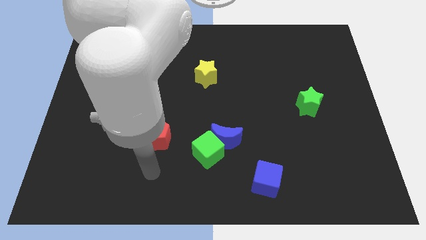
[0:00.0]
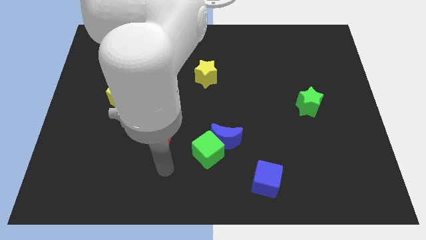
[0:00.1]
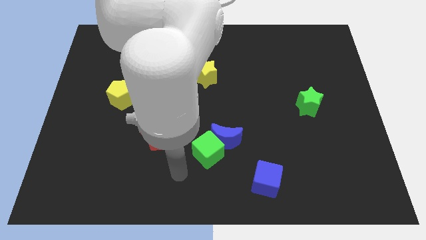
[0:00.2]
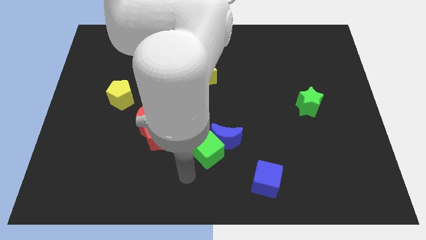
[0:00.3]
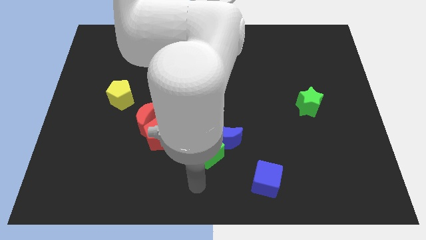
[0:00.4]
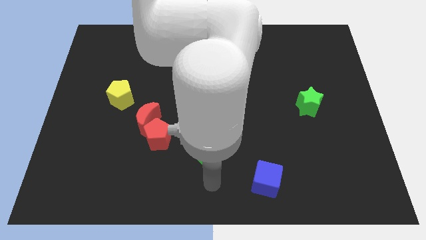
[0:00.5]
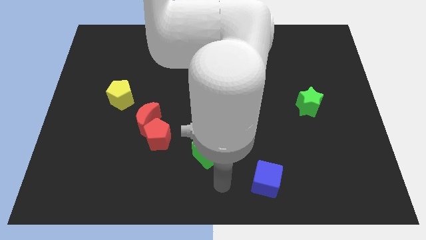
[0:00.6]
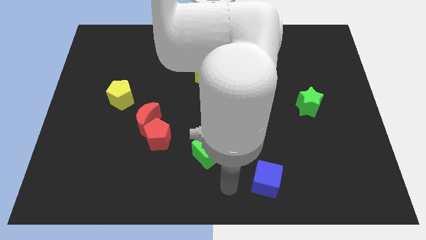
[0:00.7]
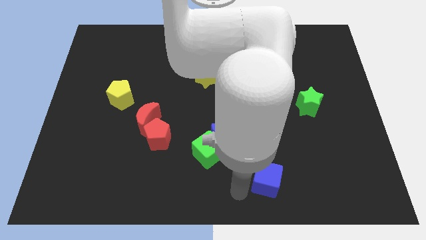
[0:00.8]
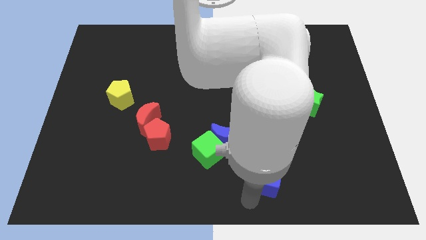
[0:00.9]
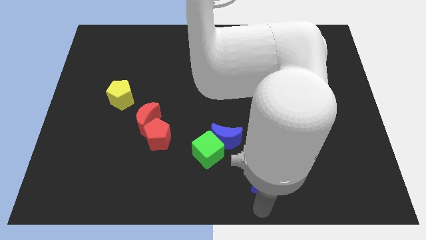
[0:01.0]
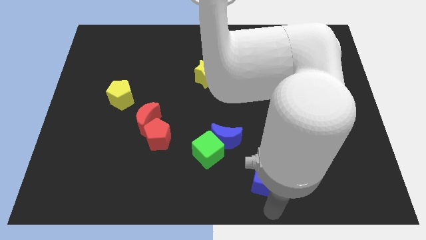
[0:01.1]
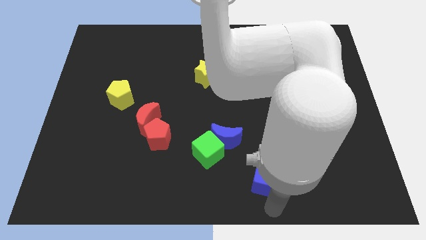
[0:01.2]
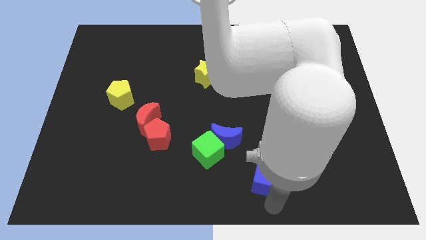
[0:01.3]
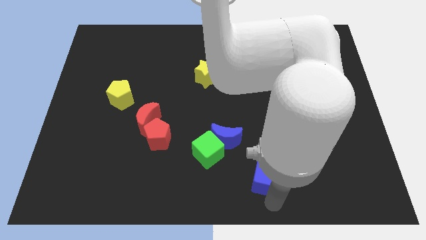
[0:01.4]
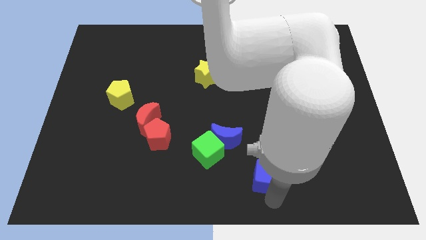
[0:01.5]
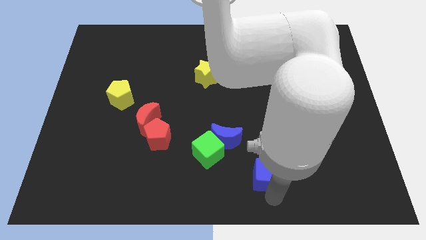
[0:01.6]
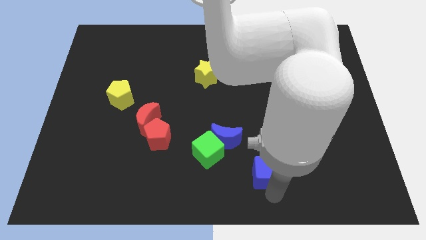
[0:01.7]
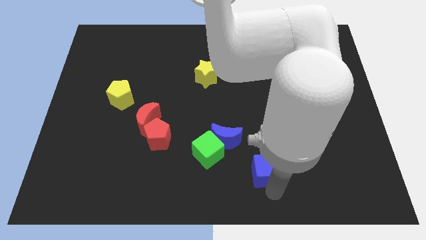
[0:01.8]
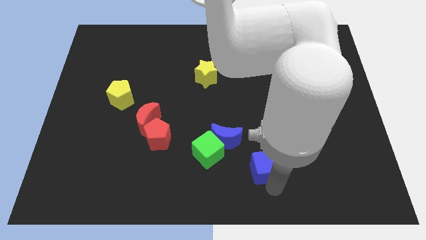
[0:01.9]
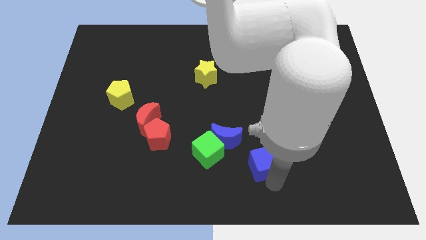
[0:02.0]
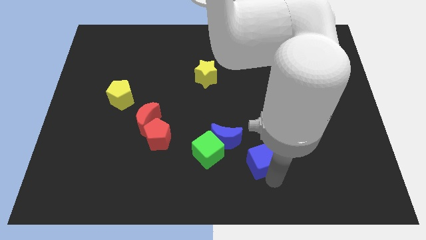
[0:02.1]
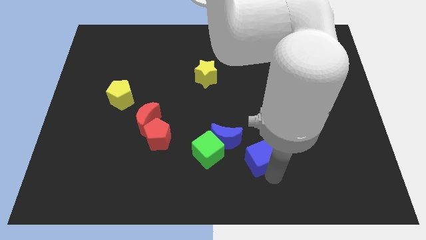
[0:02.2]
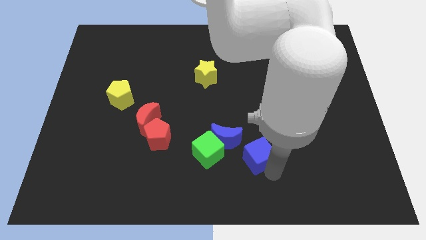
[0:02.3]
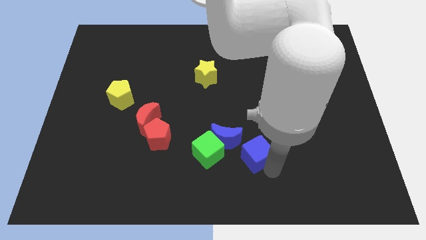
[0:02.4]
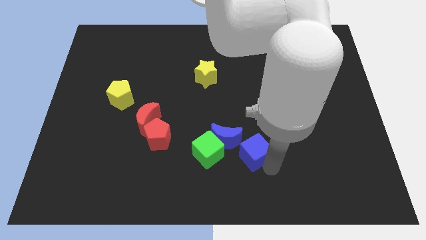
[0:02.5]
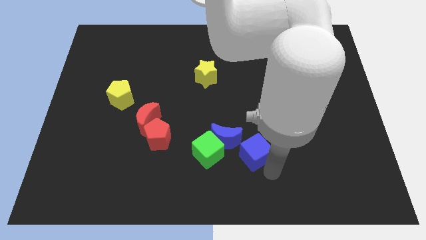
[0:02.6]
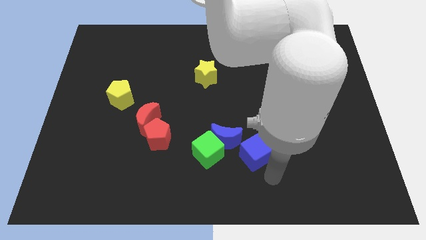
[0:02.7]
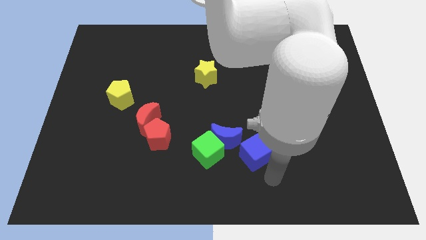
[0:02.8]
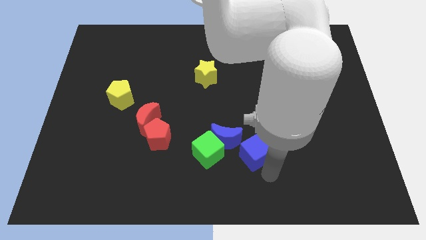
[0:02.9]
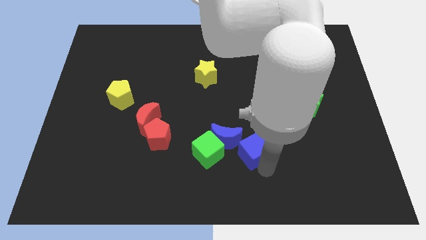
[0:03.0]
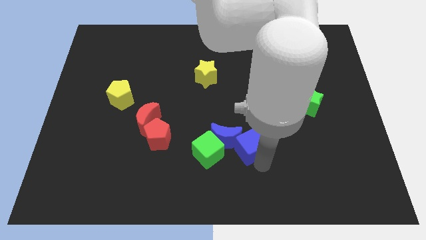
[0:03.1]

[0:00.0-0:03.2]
slightly slide the blue cube up and left diagonally

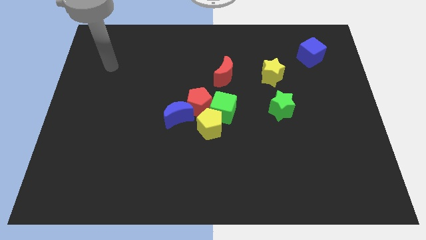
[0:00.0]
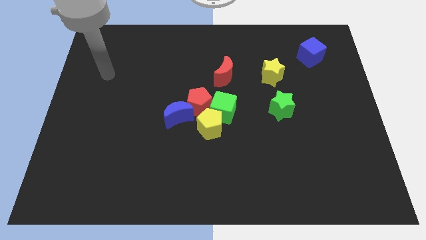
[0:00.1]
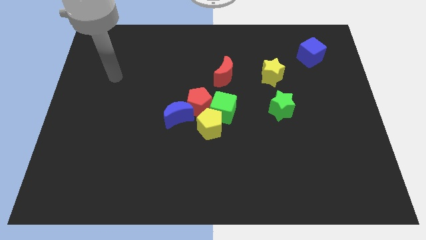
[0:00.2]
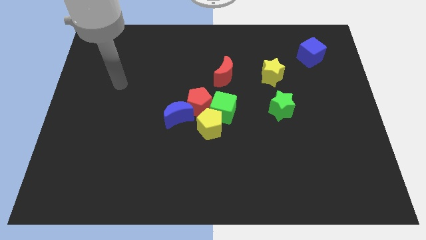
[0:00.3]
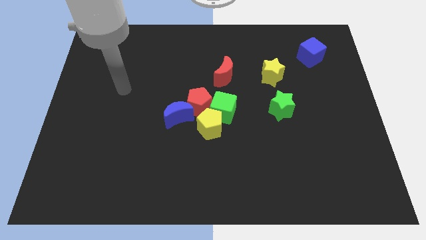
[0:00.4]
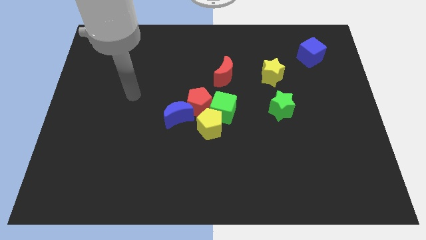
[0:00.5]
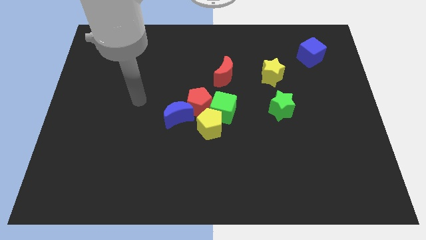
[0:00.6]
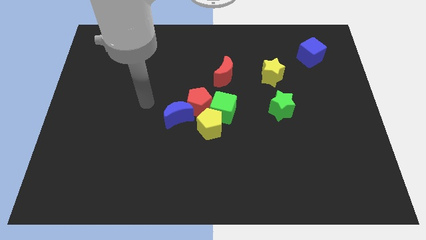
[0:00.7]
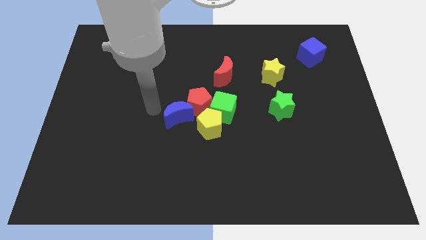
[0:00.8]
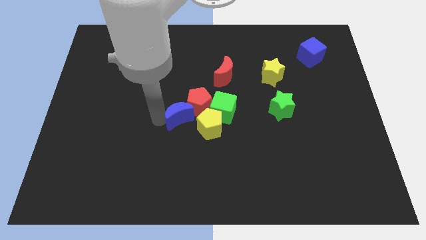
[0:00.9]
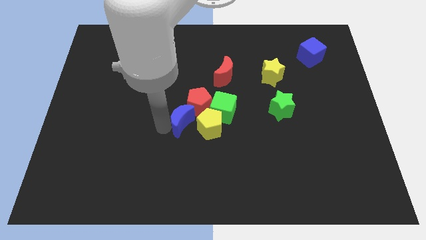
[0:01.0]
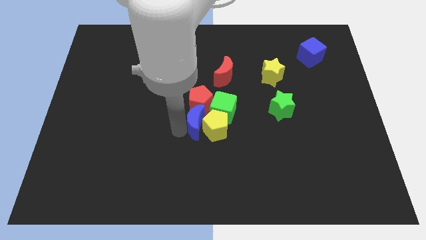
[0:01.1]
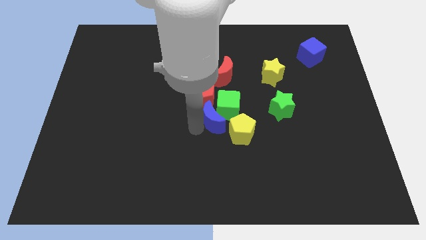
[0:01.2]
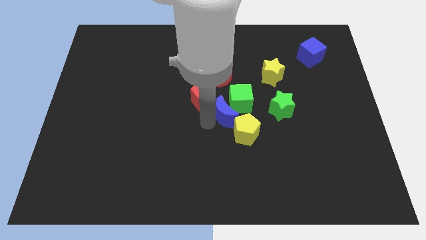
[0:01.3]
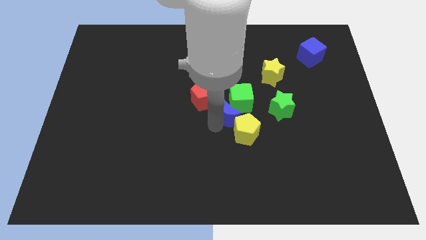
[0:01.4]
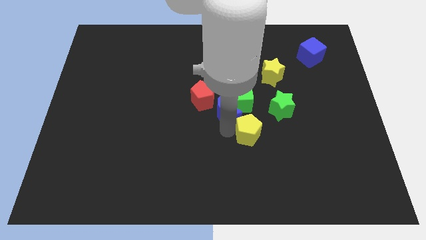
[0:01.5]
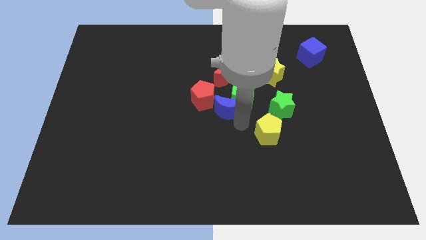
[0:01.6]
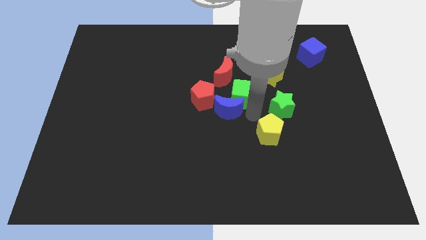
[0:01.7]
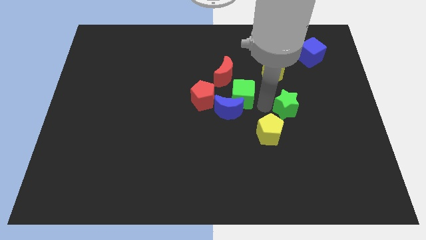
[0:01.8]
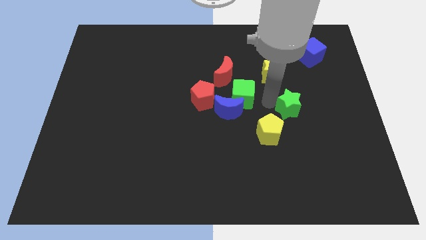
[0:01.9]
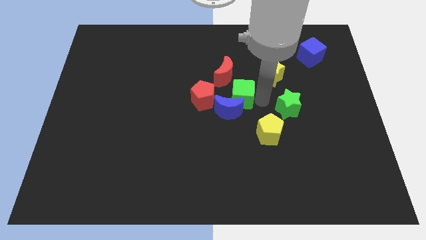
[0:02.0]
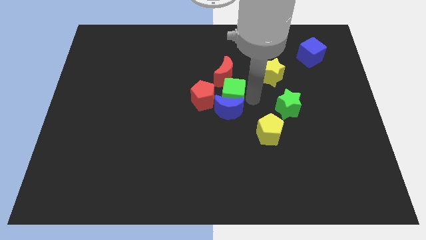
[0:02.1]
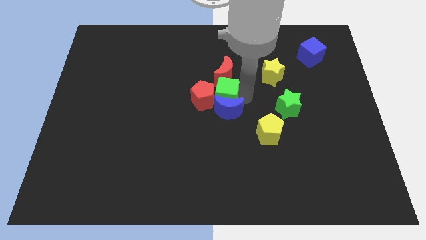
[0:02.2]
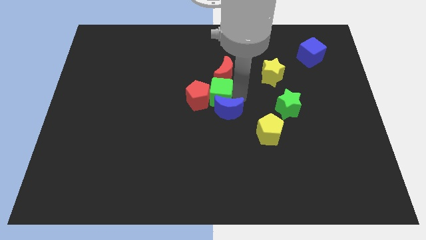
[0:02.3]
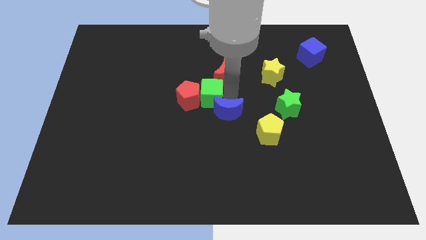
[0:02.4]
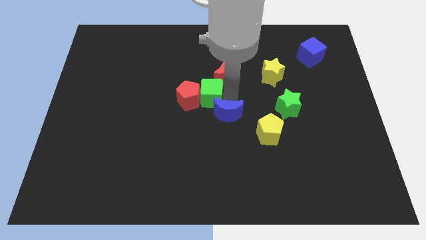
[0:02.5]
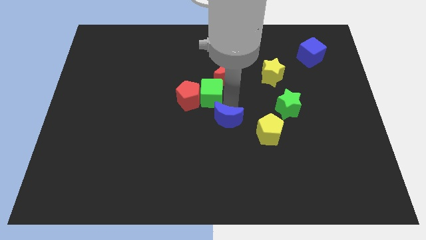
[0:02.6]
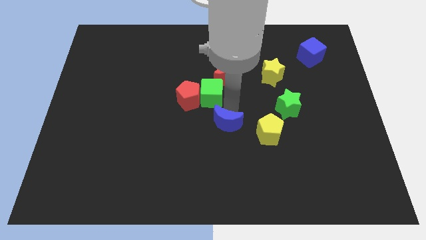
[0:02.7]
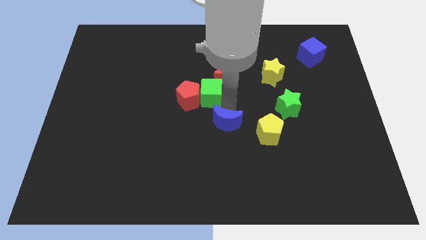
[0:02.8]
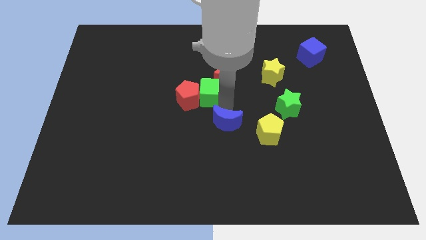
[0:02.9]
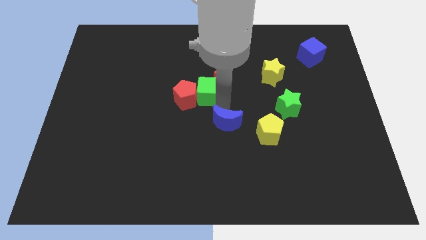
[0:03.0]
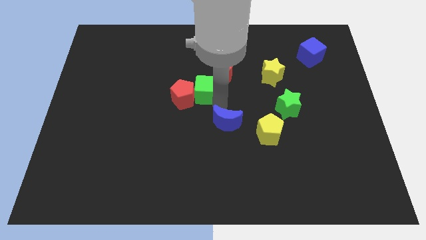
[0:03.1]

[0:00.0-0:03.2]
slightly slide the green cube up and left diagonally

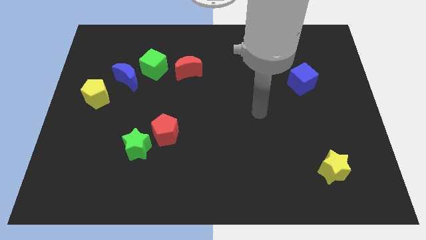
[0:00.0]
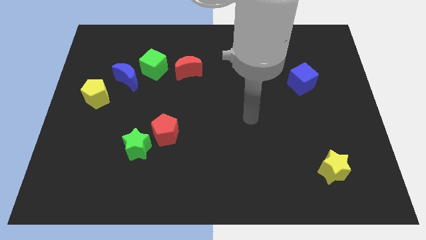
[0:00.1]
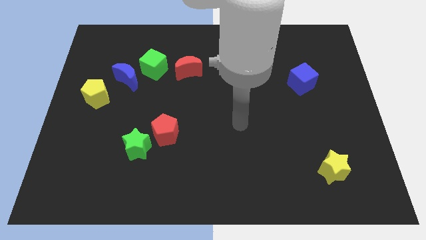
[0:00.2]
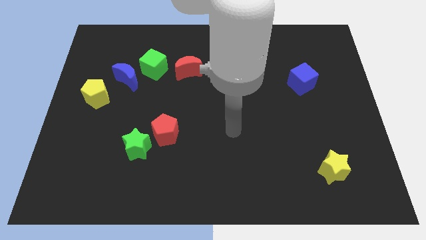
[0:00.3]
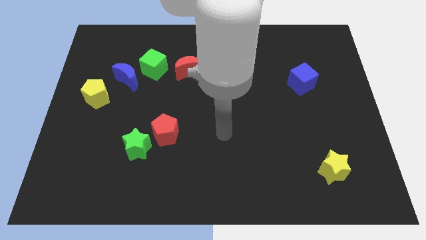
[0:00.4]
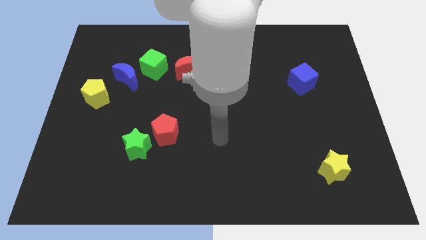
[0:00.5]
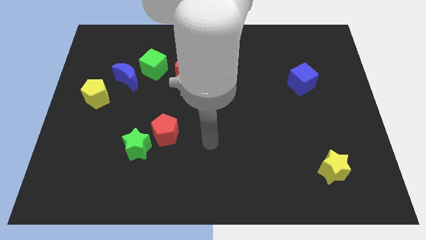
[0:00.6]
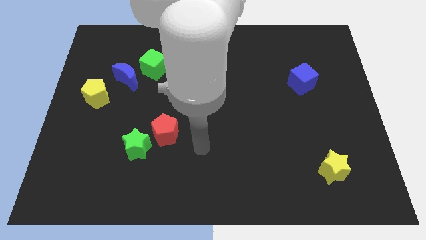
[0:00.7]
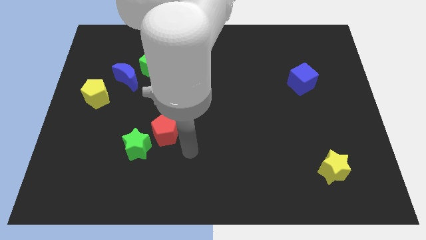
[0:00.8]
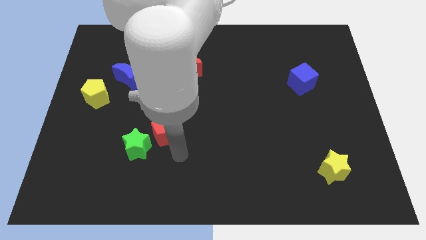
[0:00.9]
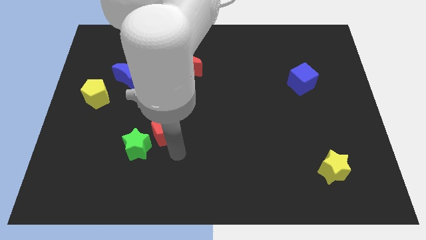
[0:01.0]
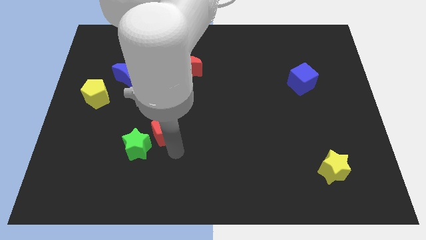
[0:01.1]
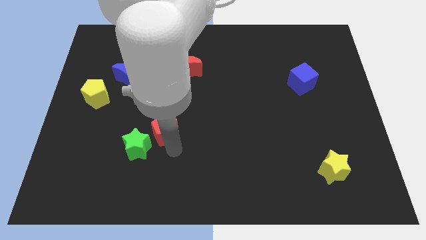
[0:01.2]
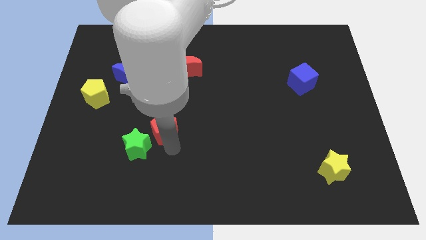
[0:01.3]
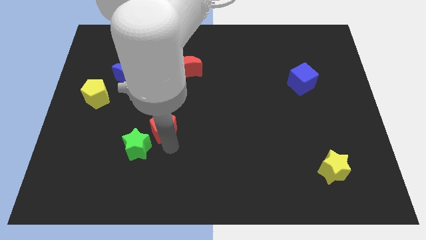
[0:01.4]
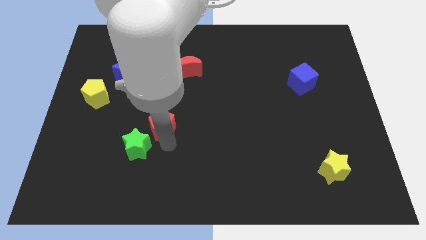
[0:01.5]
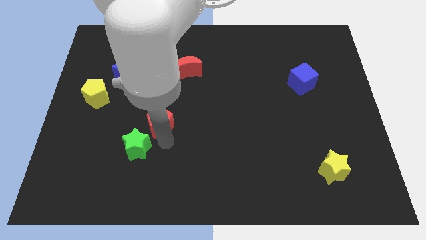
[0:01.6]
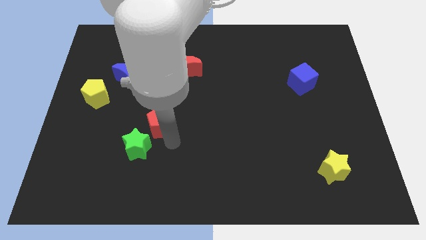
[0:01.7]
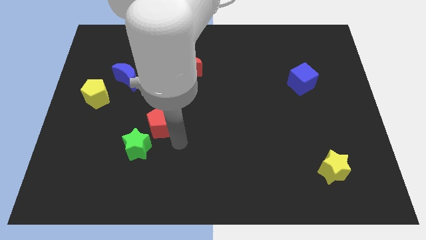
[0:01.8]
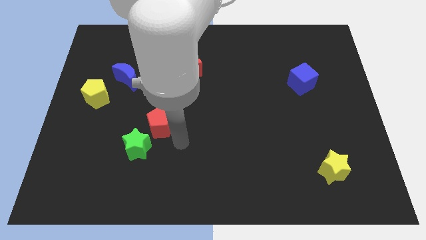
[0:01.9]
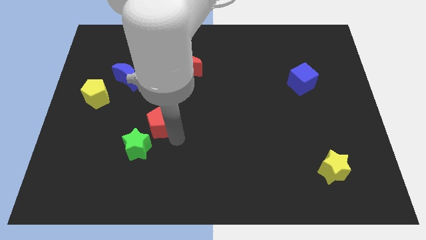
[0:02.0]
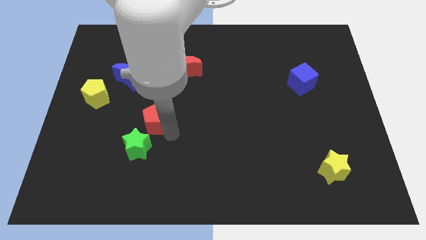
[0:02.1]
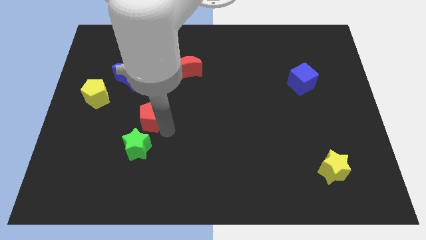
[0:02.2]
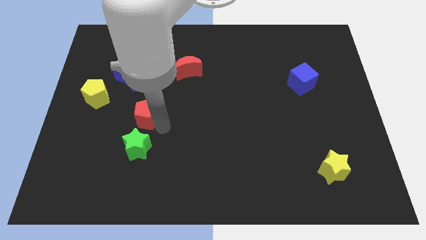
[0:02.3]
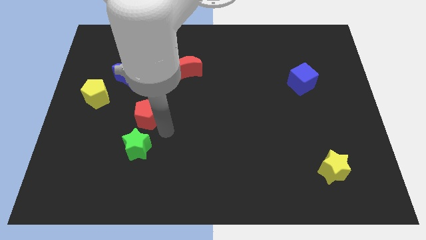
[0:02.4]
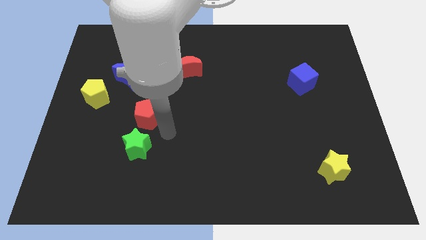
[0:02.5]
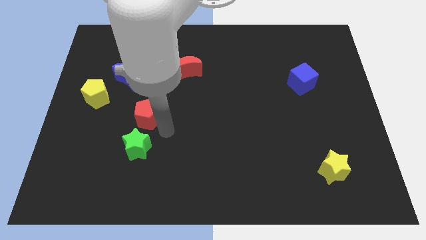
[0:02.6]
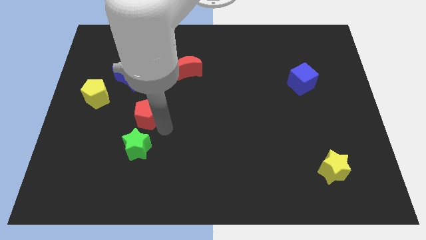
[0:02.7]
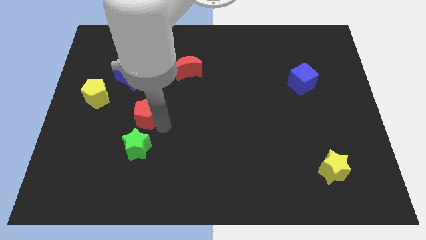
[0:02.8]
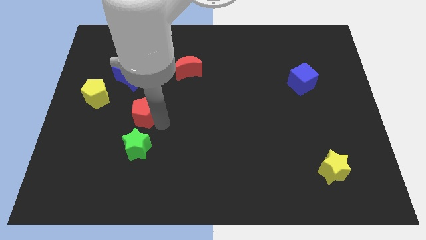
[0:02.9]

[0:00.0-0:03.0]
slide the red pentagon up and to the left a little
